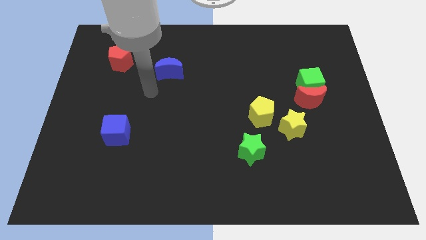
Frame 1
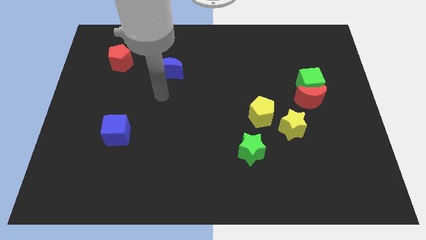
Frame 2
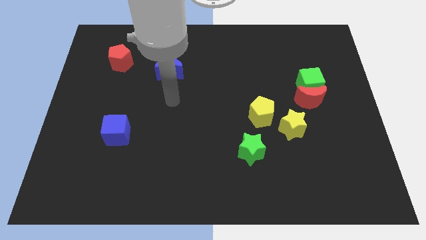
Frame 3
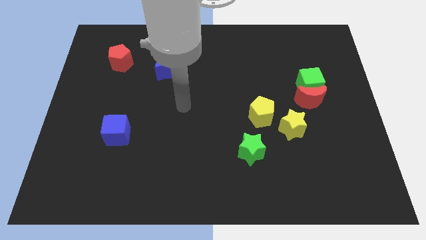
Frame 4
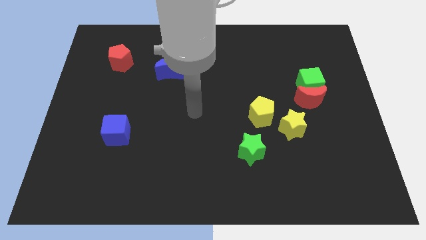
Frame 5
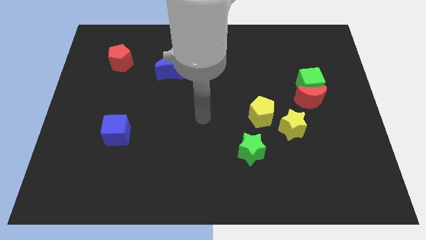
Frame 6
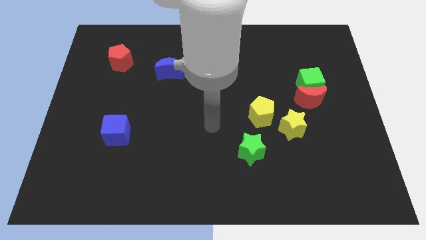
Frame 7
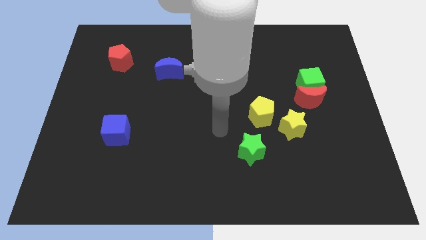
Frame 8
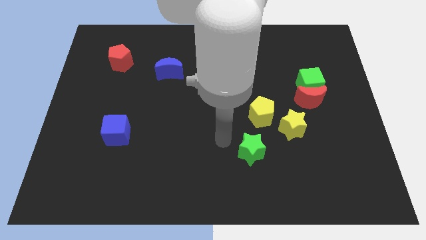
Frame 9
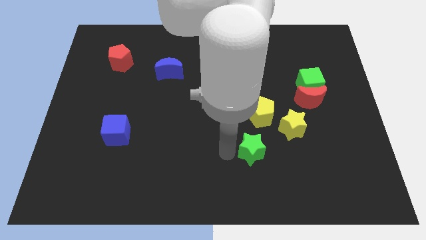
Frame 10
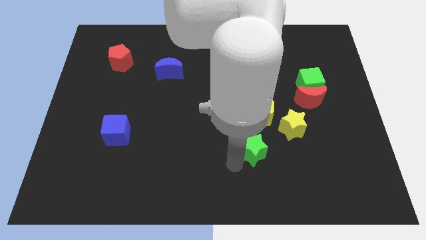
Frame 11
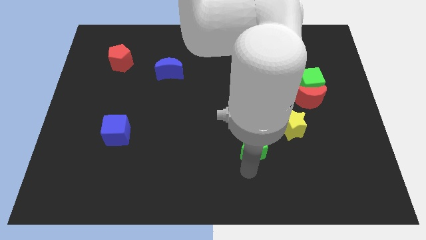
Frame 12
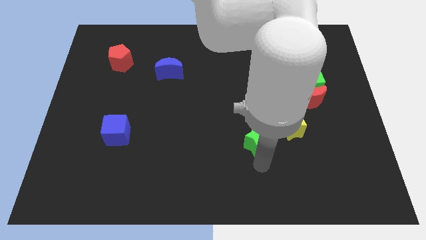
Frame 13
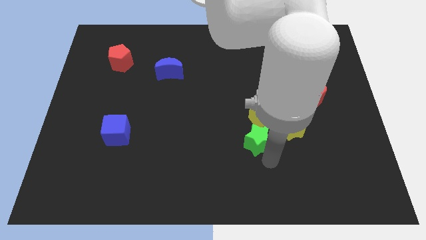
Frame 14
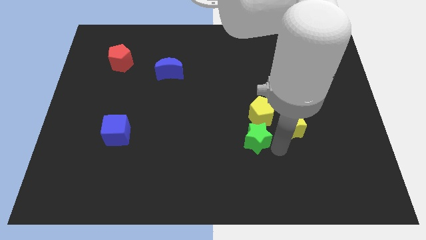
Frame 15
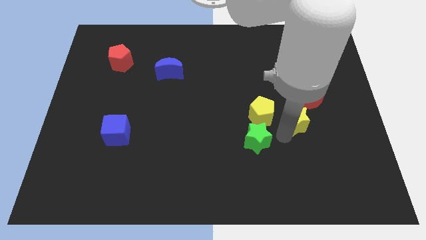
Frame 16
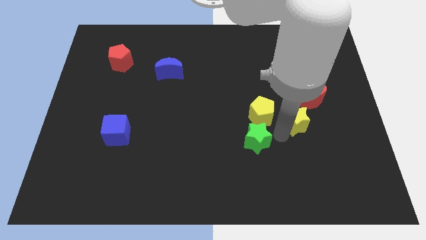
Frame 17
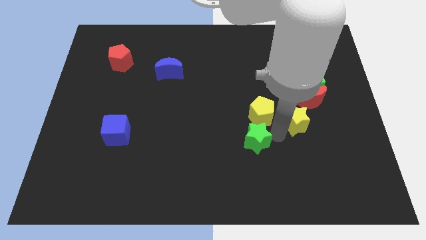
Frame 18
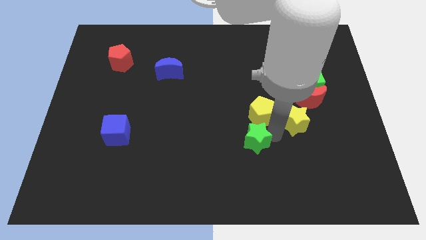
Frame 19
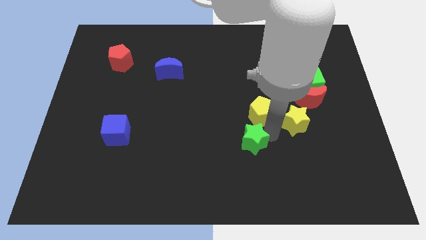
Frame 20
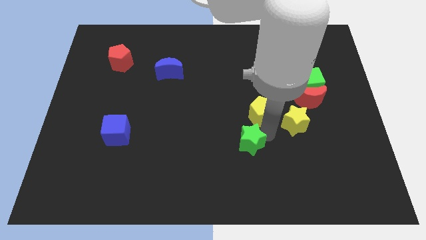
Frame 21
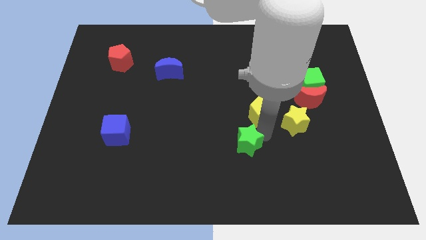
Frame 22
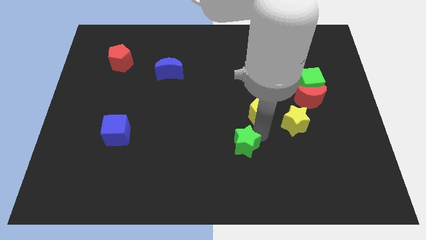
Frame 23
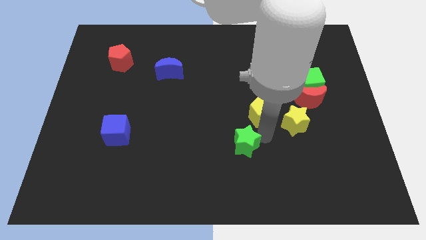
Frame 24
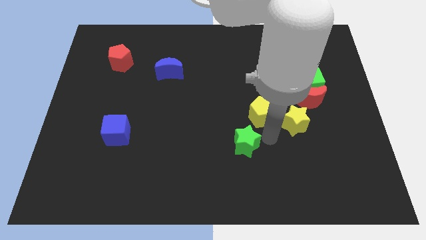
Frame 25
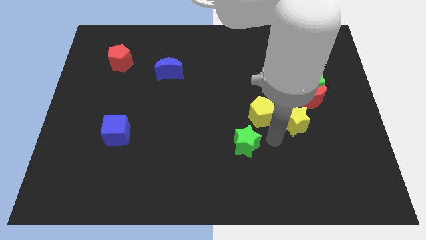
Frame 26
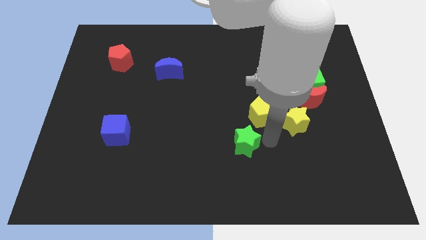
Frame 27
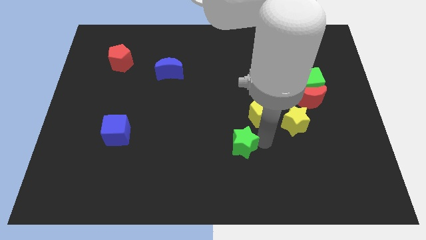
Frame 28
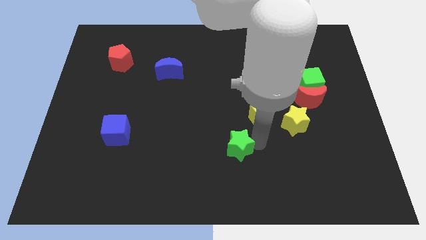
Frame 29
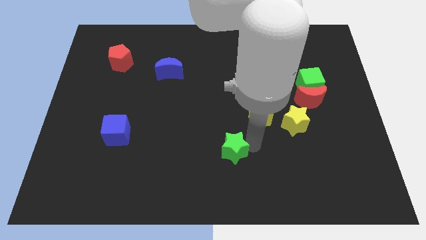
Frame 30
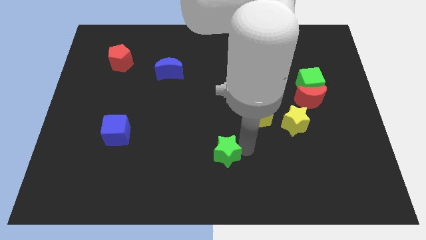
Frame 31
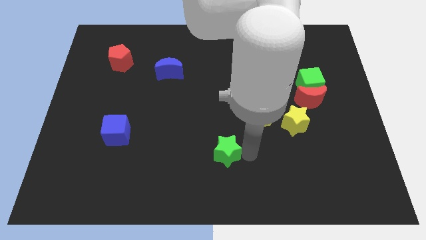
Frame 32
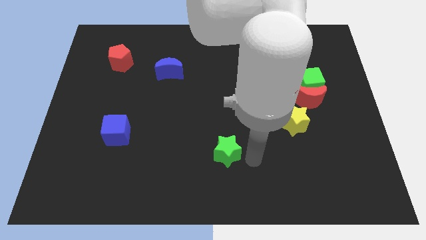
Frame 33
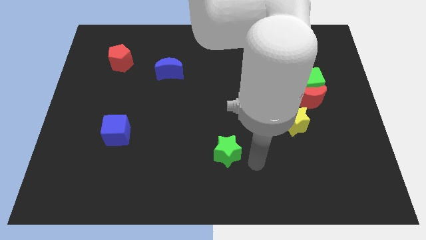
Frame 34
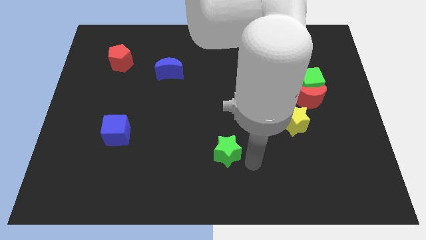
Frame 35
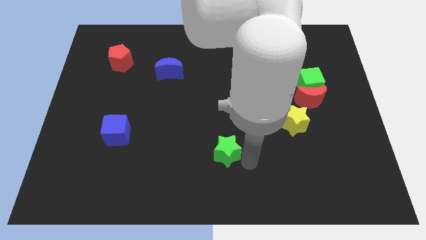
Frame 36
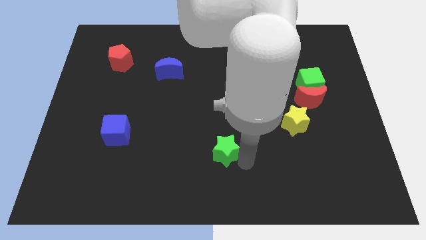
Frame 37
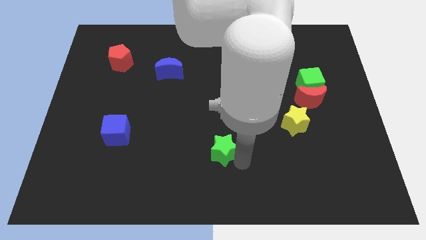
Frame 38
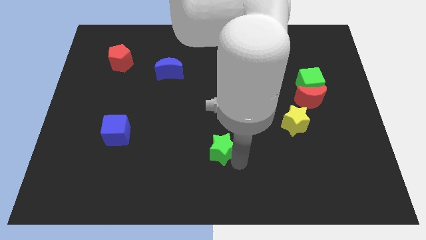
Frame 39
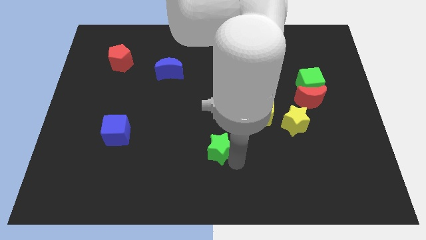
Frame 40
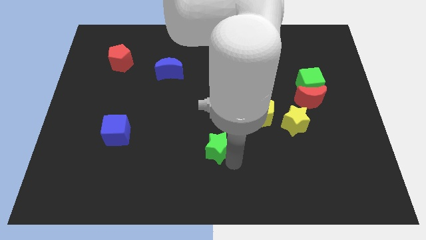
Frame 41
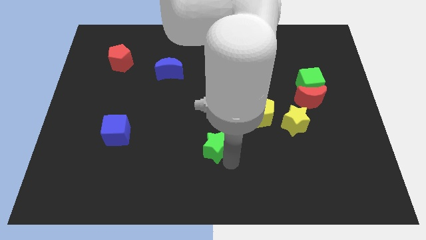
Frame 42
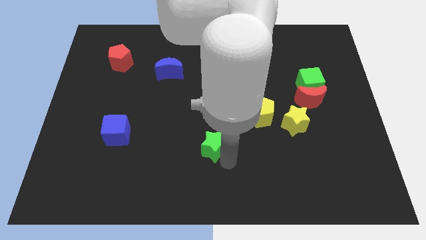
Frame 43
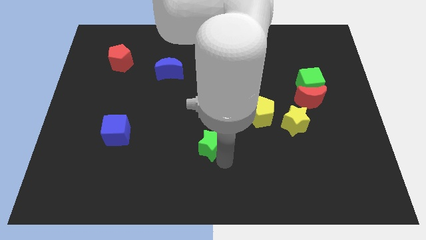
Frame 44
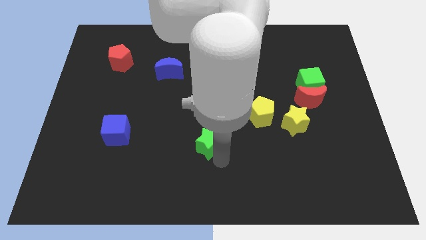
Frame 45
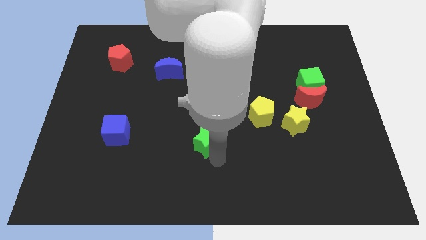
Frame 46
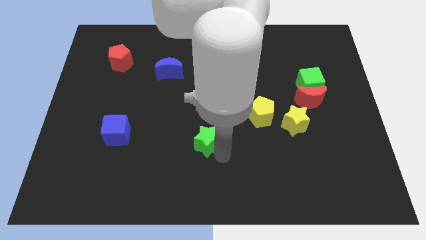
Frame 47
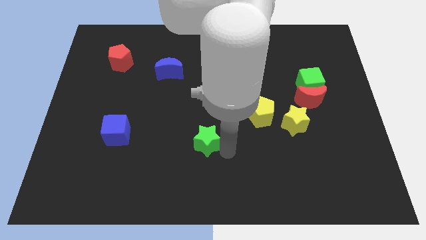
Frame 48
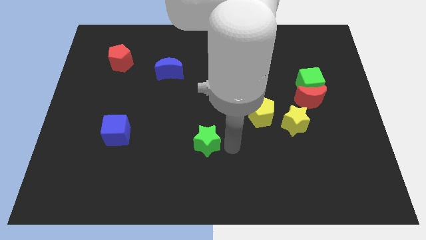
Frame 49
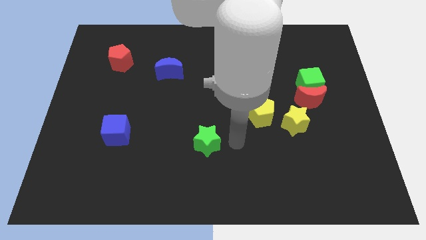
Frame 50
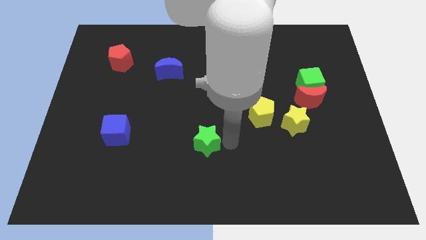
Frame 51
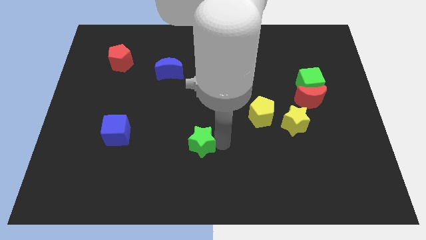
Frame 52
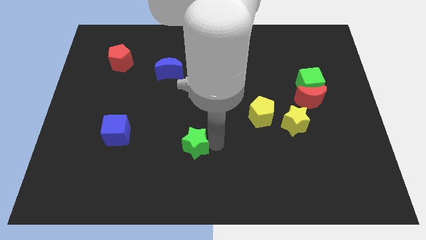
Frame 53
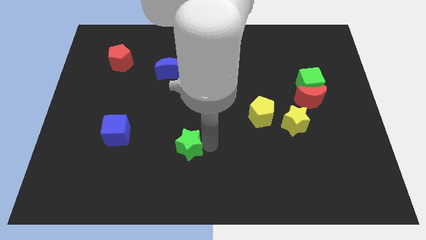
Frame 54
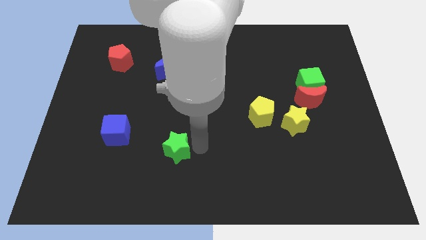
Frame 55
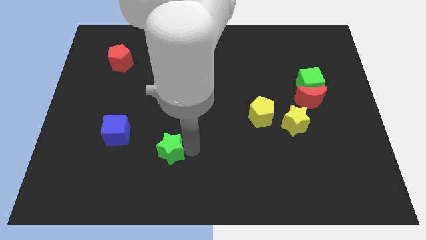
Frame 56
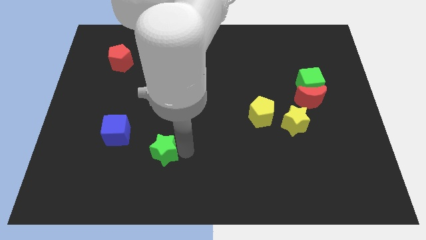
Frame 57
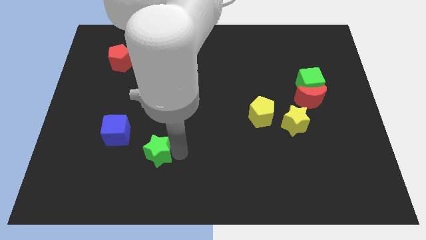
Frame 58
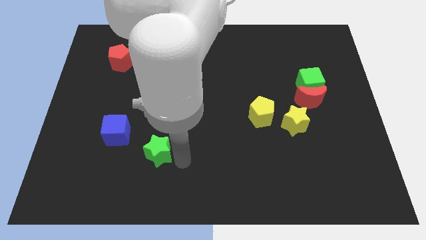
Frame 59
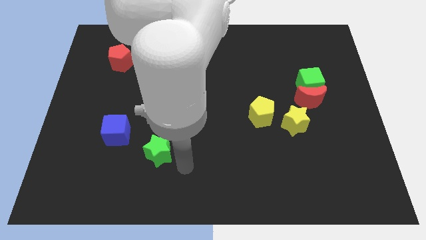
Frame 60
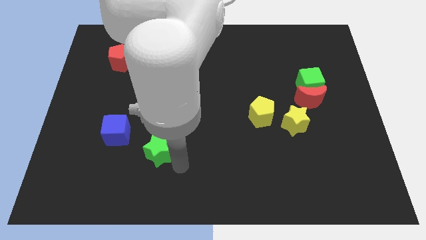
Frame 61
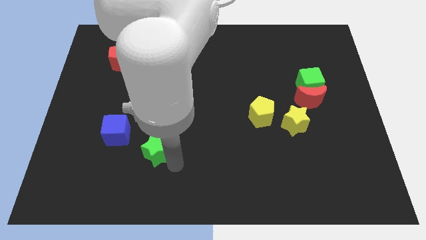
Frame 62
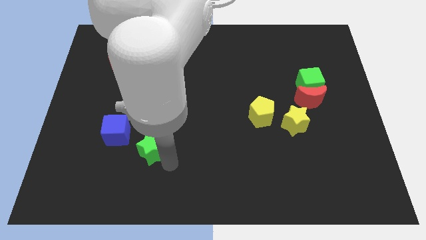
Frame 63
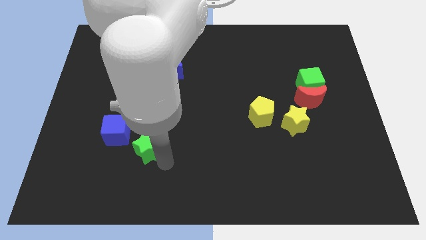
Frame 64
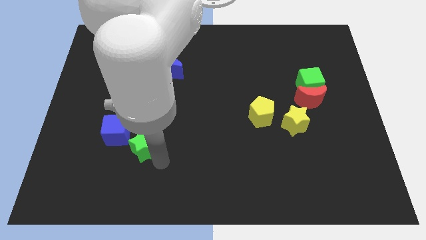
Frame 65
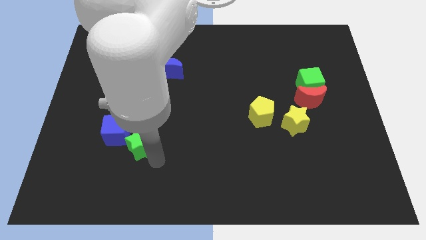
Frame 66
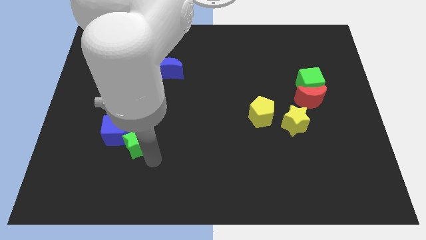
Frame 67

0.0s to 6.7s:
slide the green star to the blue cube

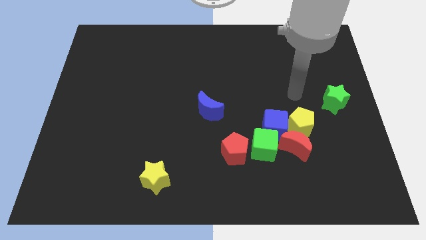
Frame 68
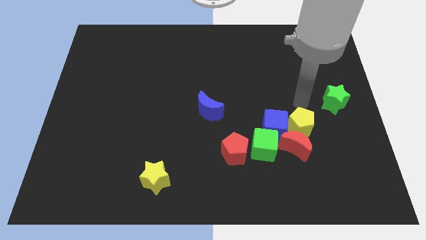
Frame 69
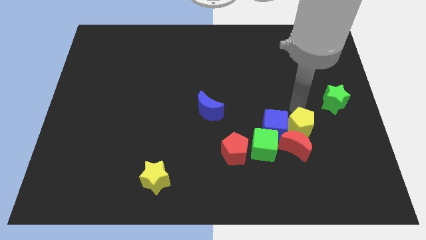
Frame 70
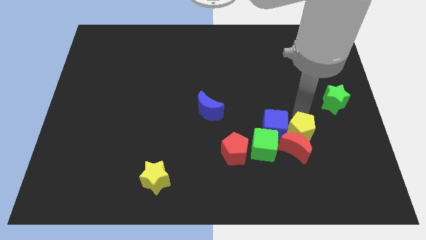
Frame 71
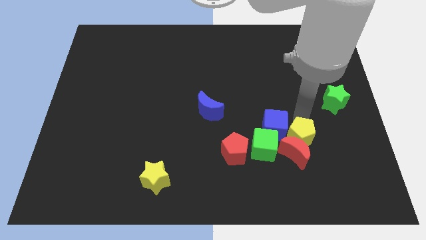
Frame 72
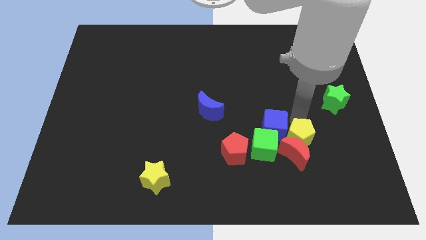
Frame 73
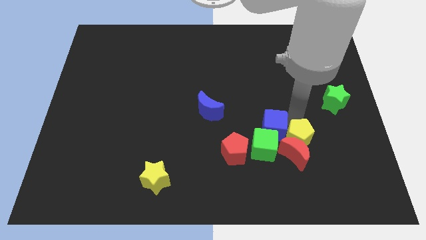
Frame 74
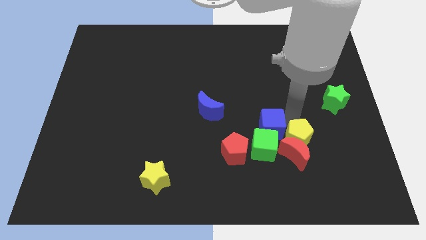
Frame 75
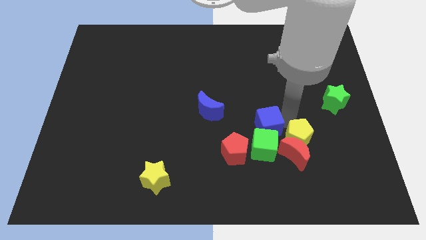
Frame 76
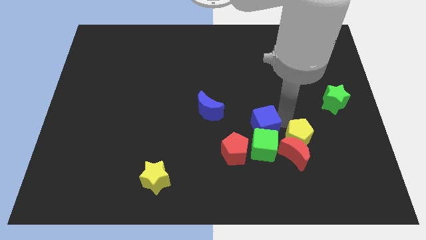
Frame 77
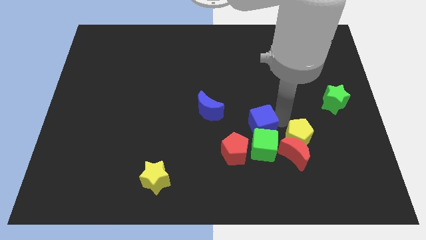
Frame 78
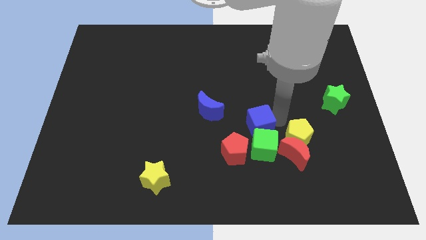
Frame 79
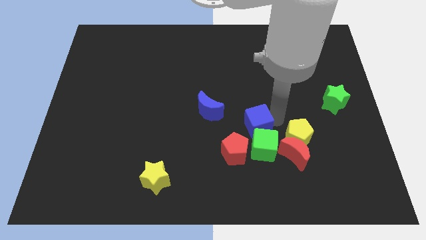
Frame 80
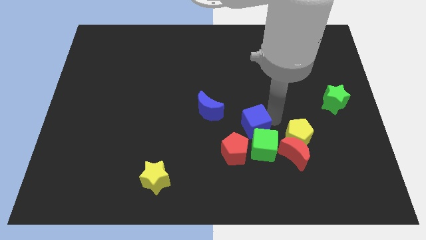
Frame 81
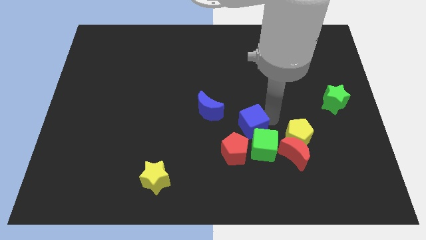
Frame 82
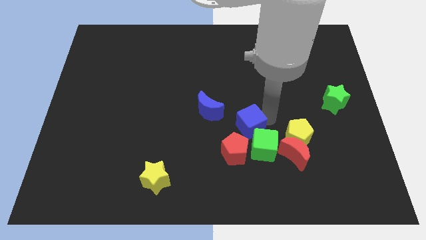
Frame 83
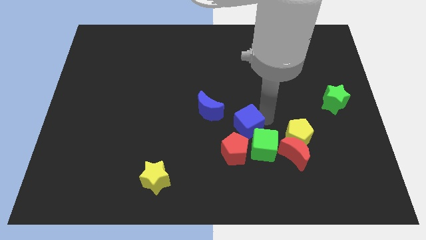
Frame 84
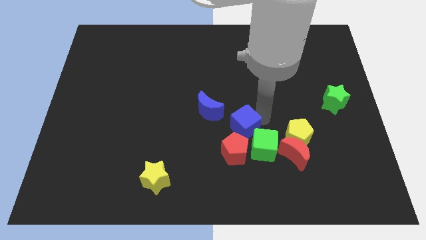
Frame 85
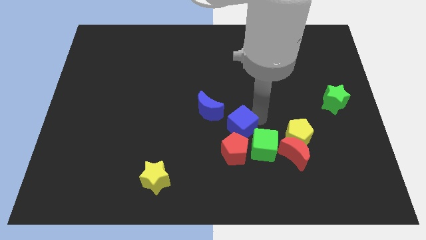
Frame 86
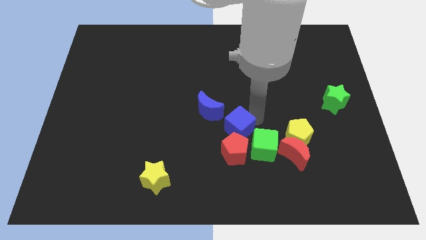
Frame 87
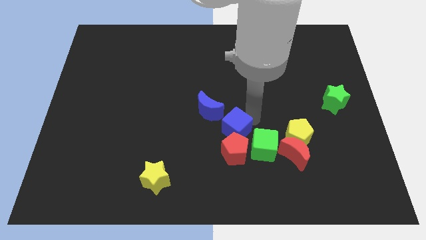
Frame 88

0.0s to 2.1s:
push the blue cube to the red pentagon
